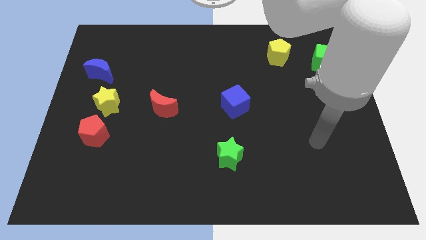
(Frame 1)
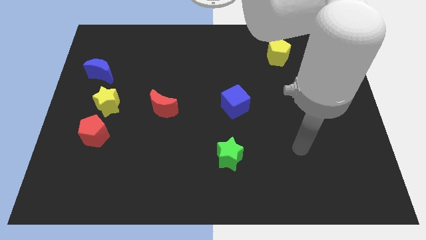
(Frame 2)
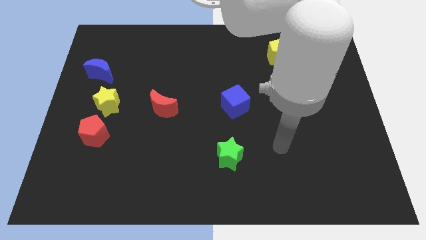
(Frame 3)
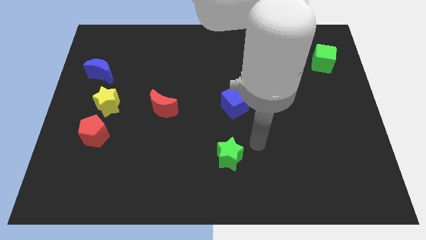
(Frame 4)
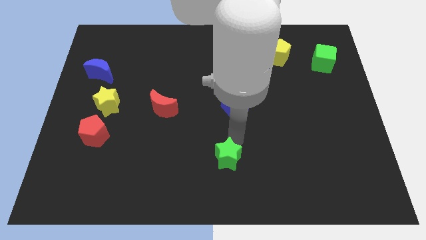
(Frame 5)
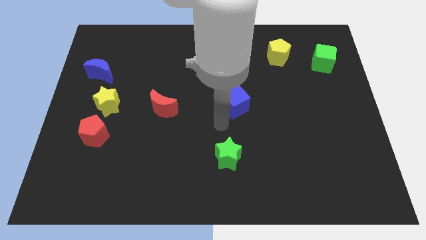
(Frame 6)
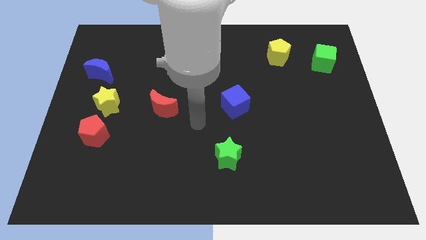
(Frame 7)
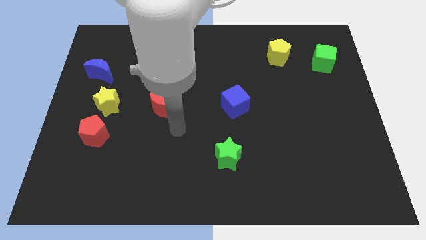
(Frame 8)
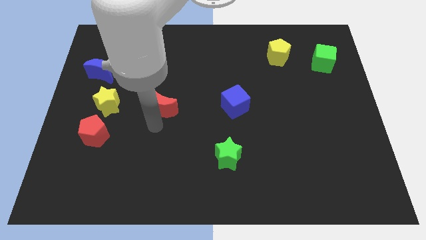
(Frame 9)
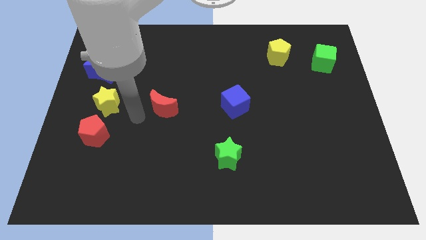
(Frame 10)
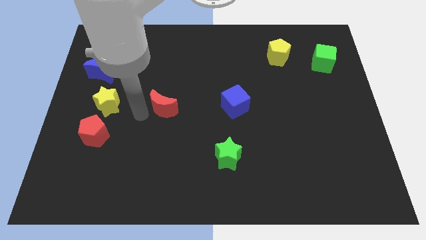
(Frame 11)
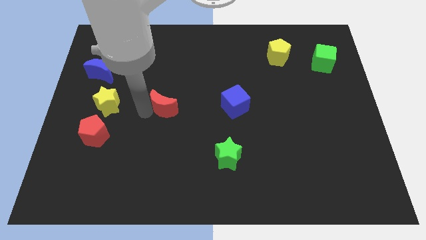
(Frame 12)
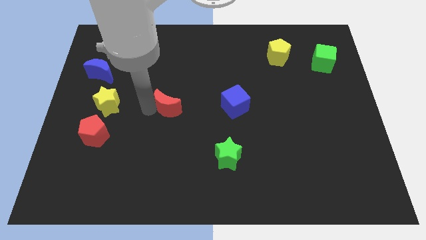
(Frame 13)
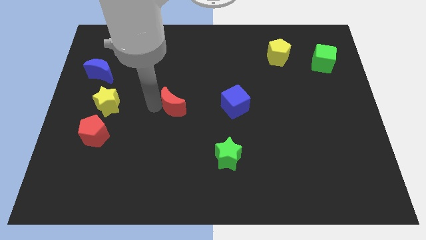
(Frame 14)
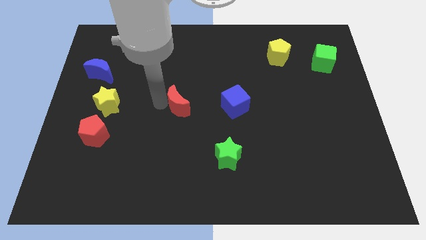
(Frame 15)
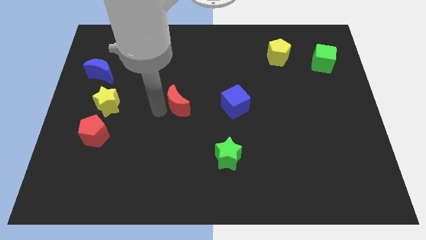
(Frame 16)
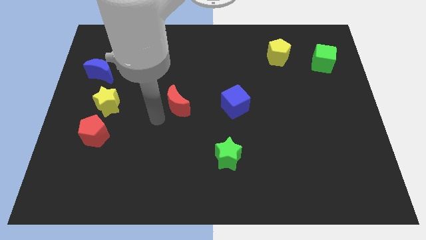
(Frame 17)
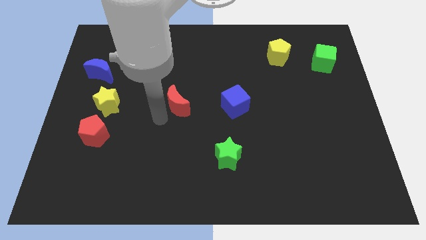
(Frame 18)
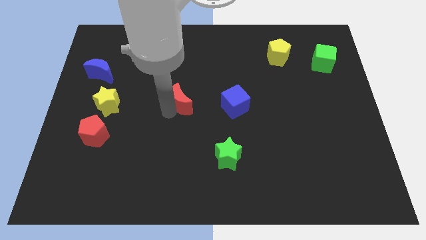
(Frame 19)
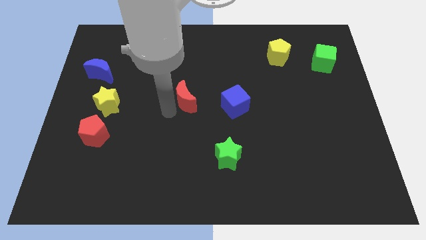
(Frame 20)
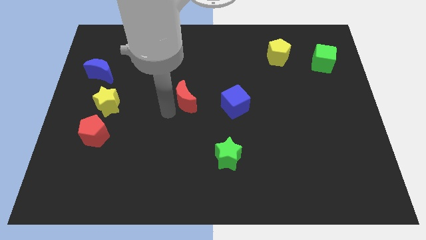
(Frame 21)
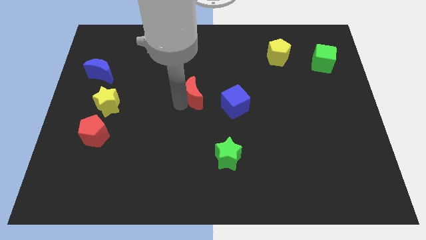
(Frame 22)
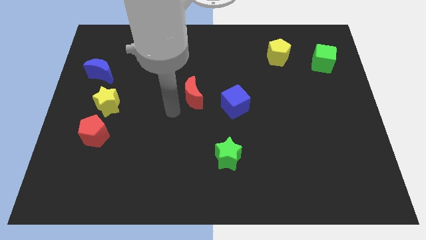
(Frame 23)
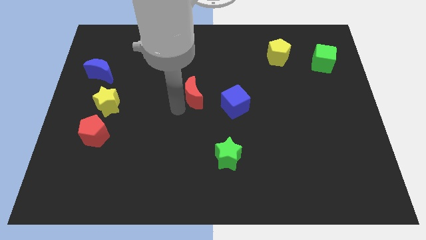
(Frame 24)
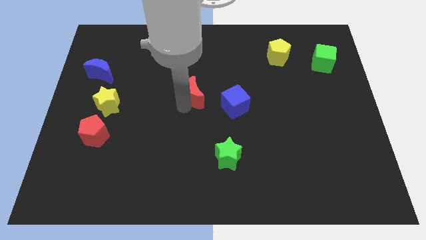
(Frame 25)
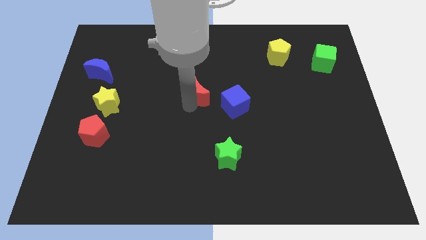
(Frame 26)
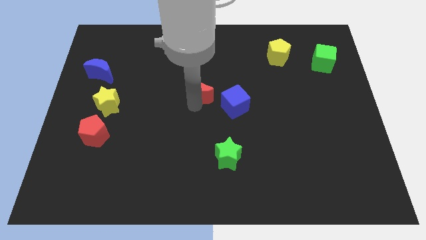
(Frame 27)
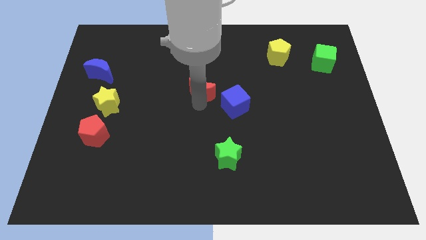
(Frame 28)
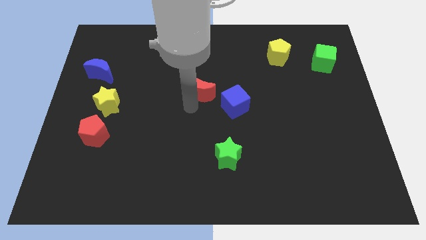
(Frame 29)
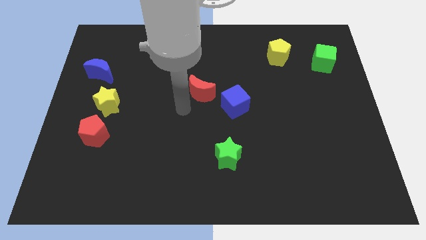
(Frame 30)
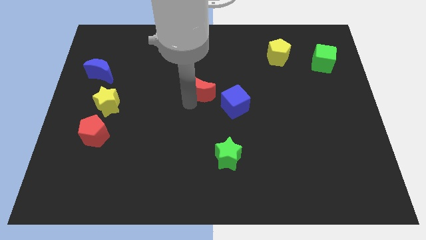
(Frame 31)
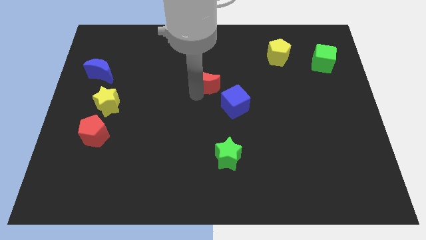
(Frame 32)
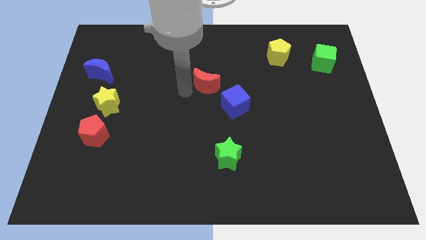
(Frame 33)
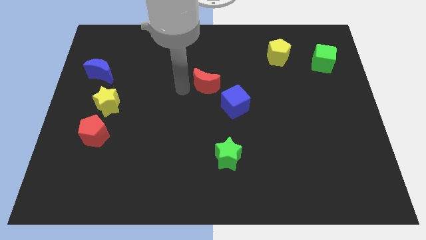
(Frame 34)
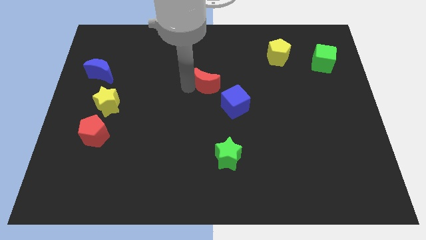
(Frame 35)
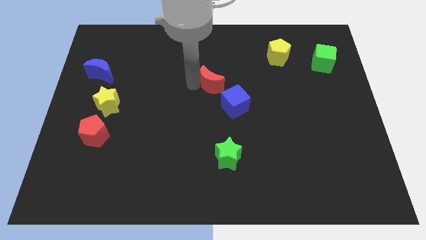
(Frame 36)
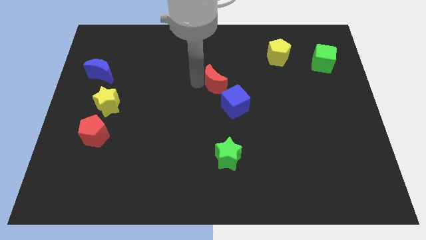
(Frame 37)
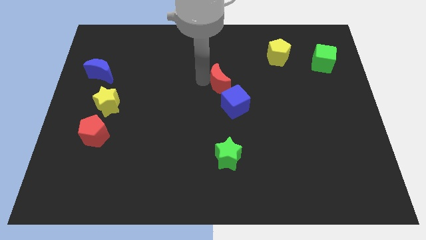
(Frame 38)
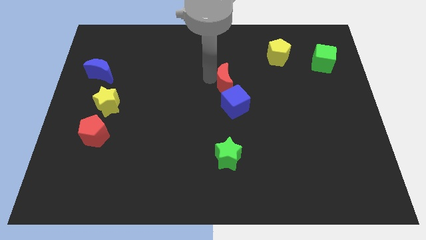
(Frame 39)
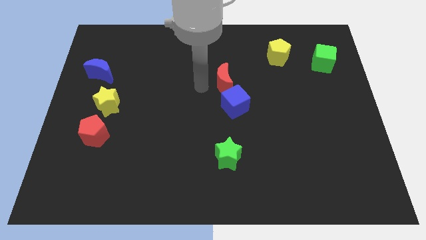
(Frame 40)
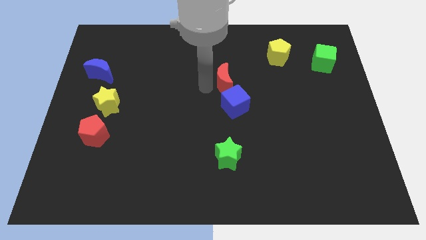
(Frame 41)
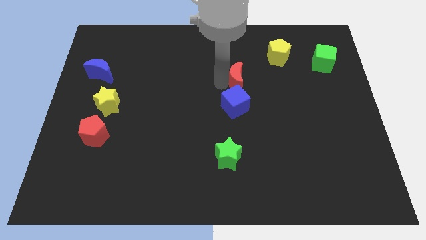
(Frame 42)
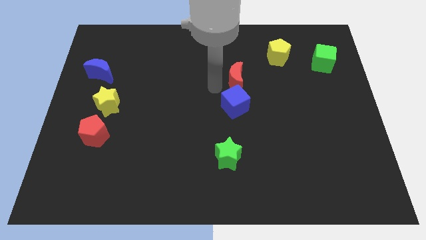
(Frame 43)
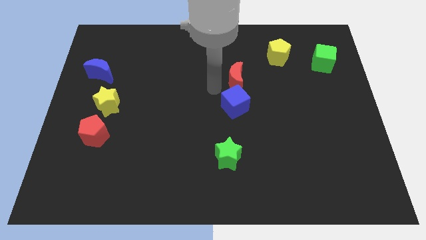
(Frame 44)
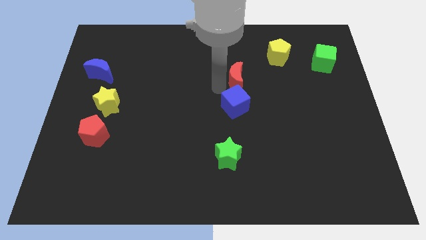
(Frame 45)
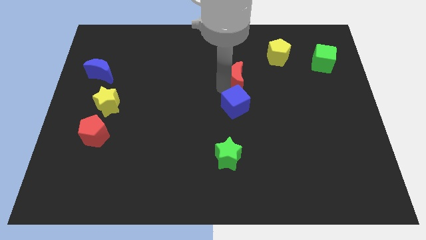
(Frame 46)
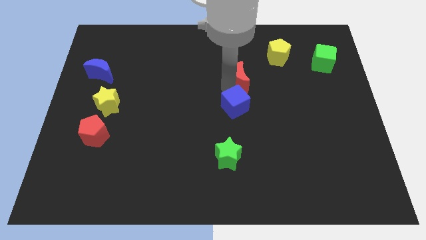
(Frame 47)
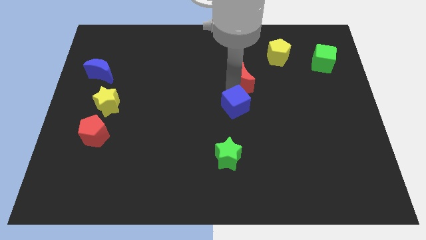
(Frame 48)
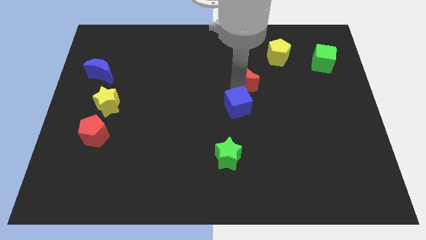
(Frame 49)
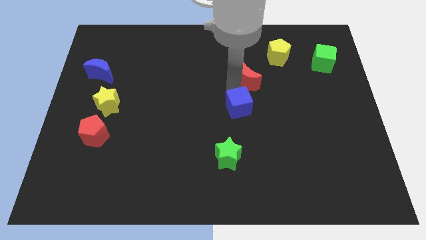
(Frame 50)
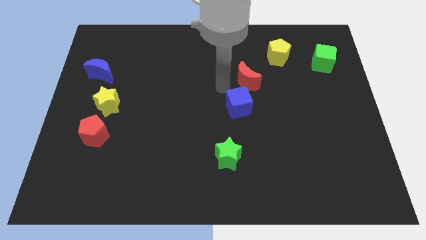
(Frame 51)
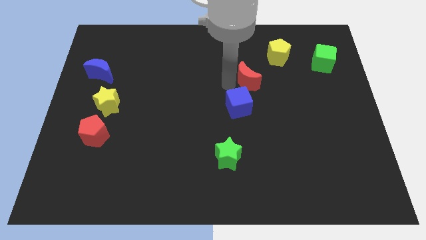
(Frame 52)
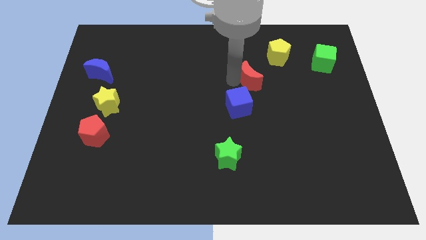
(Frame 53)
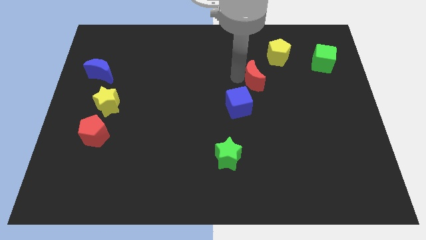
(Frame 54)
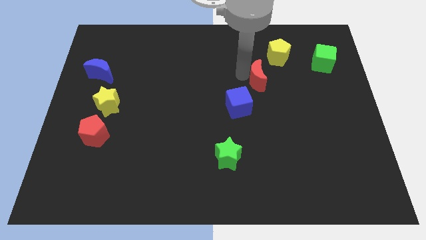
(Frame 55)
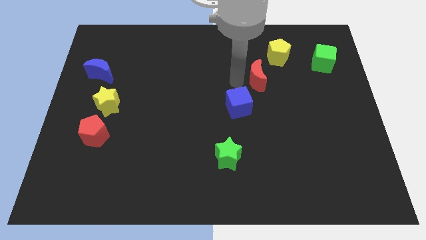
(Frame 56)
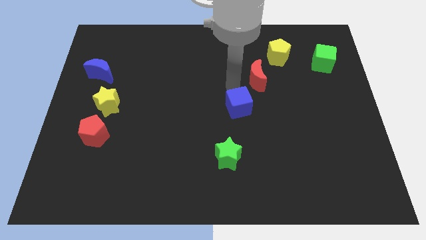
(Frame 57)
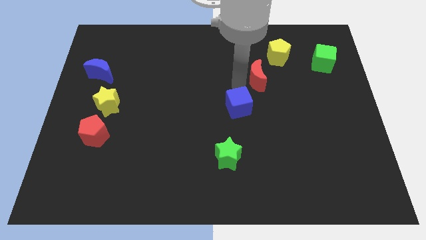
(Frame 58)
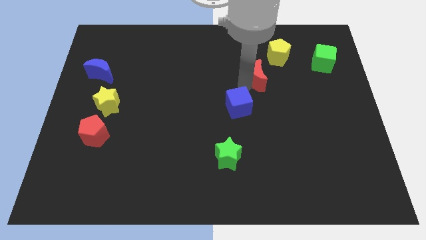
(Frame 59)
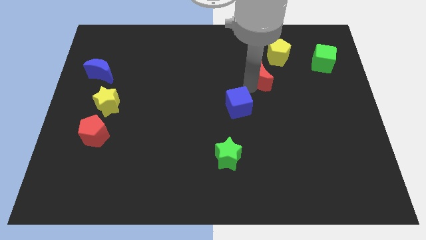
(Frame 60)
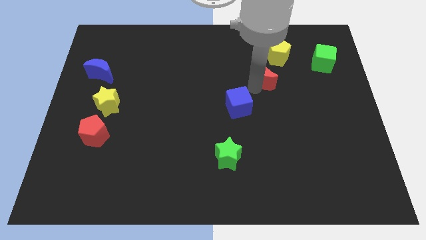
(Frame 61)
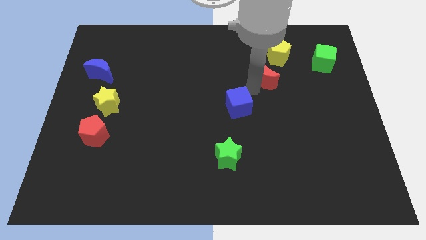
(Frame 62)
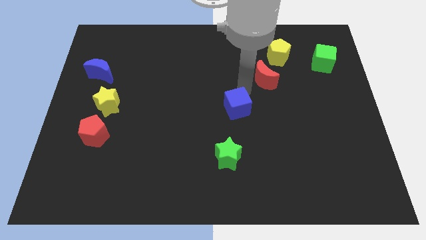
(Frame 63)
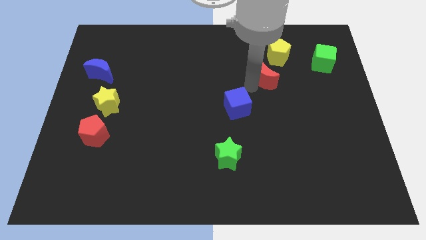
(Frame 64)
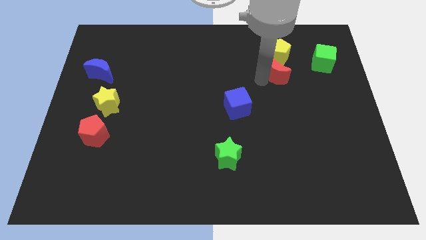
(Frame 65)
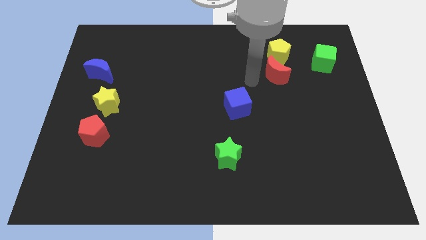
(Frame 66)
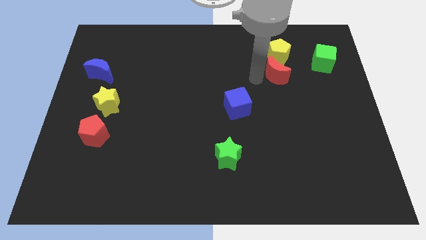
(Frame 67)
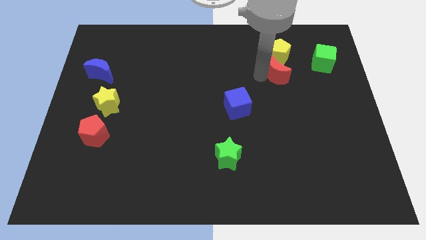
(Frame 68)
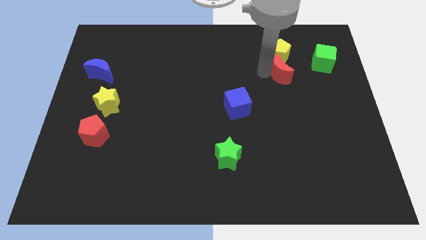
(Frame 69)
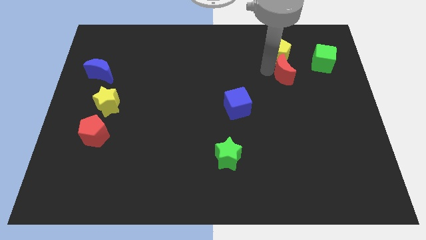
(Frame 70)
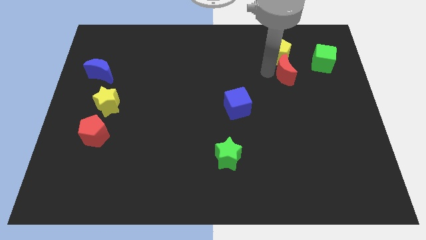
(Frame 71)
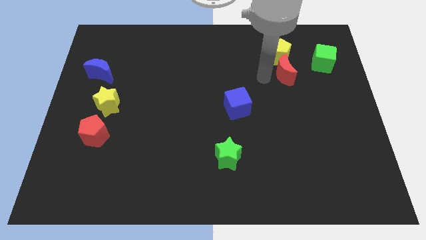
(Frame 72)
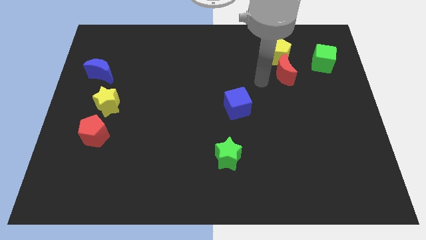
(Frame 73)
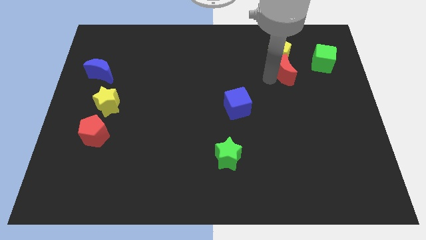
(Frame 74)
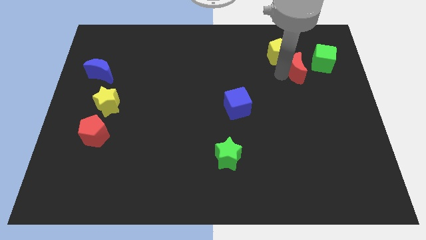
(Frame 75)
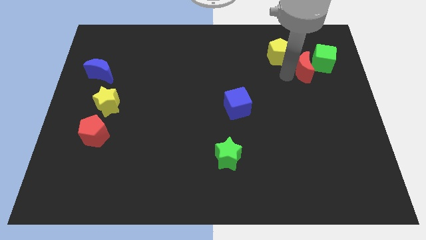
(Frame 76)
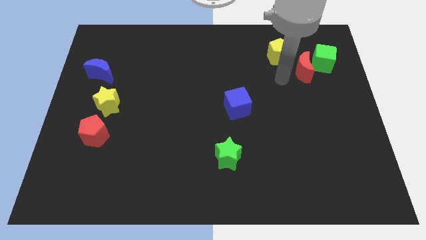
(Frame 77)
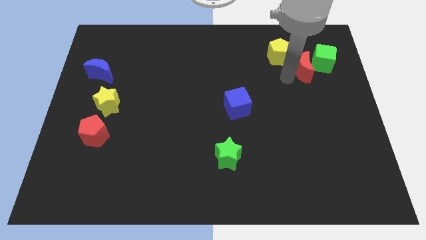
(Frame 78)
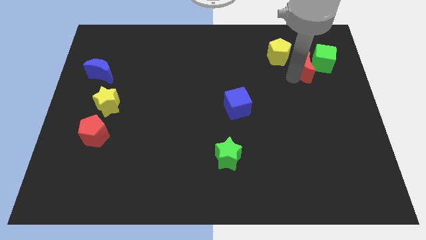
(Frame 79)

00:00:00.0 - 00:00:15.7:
push the red moon close to the green cube
